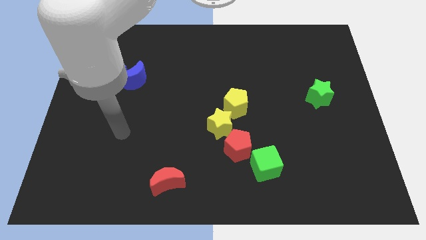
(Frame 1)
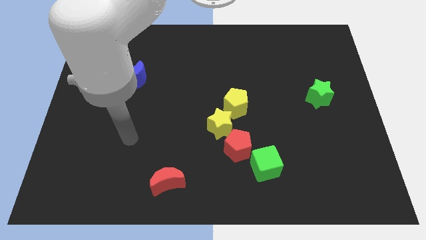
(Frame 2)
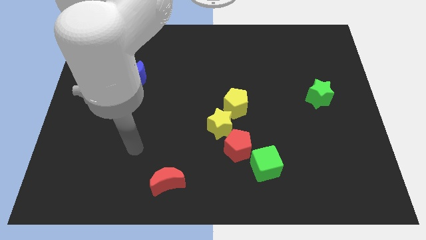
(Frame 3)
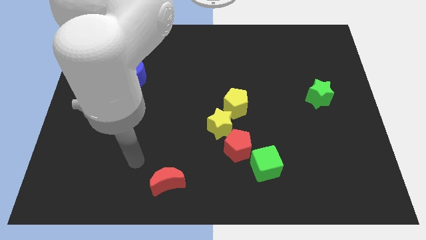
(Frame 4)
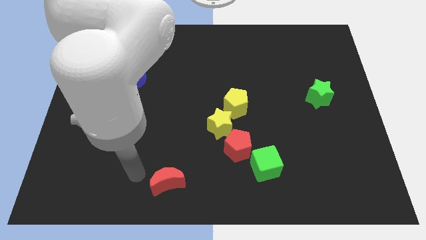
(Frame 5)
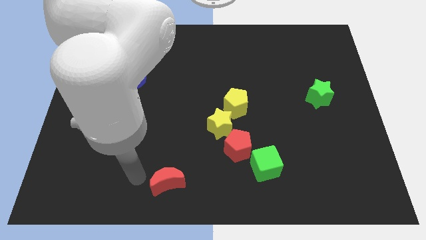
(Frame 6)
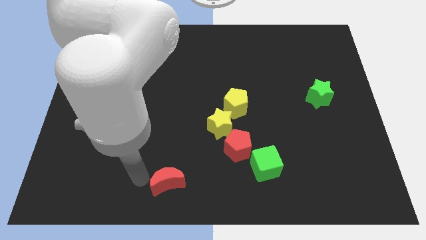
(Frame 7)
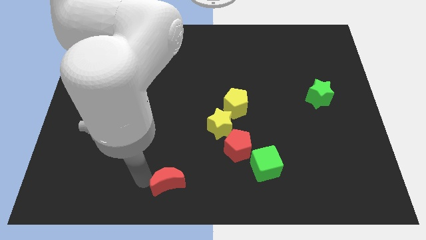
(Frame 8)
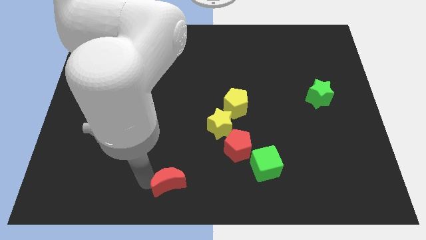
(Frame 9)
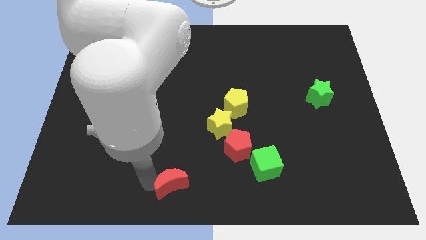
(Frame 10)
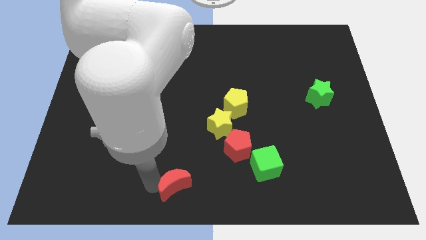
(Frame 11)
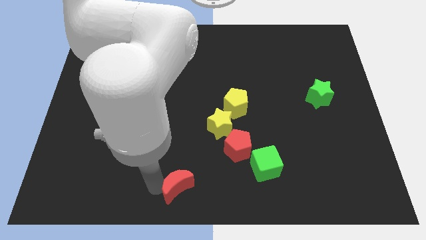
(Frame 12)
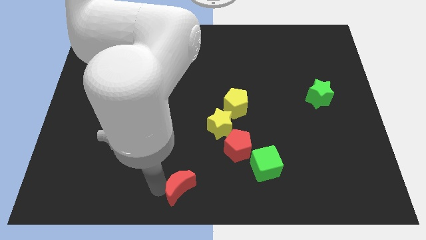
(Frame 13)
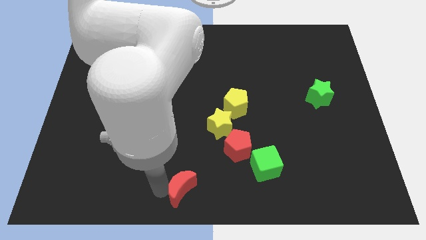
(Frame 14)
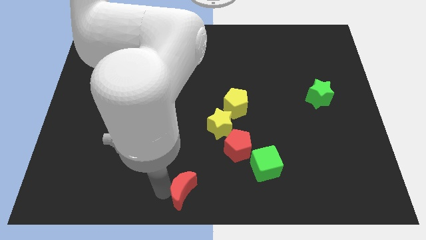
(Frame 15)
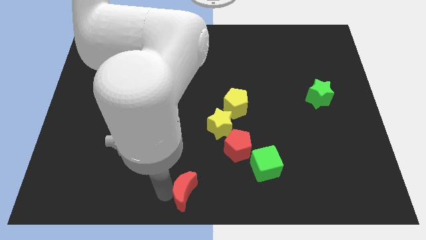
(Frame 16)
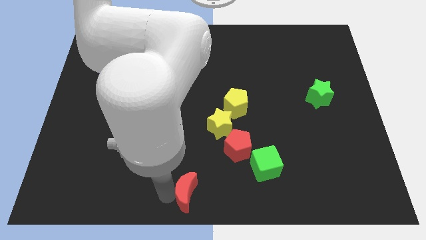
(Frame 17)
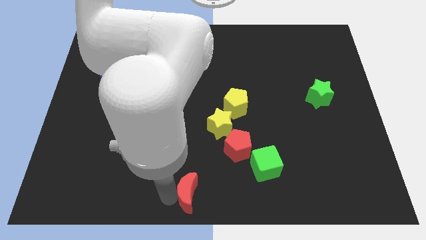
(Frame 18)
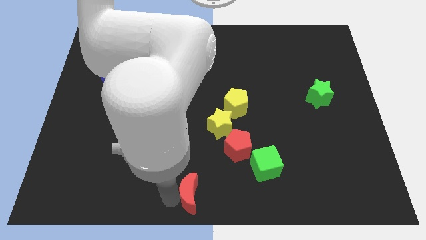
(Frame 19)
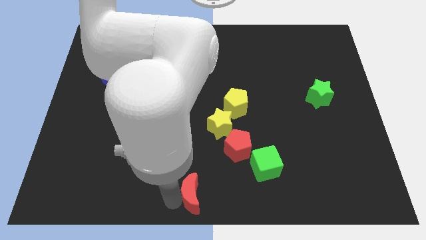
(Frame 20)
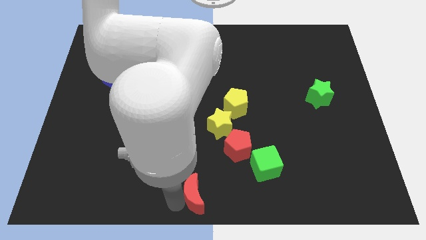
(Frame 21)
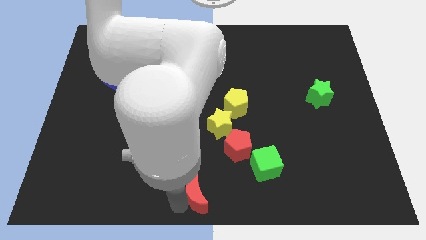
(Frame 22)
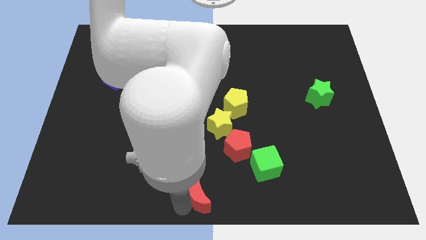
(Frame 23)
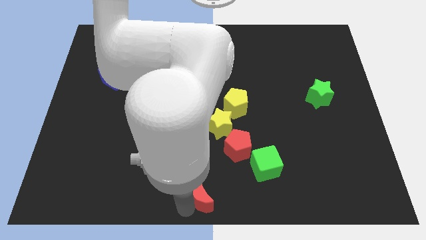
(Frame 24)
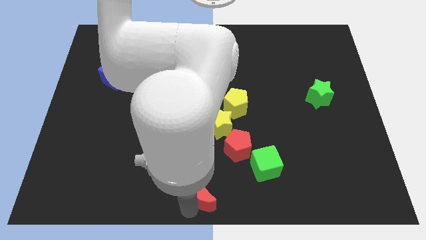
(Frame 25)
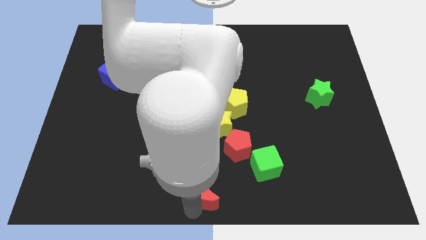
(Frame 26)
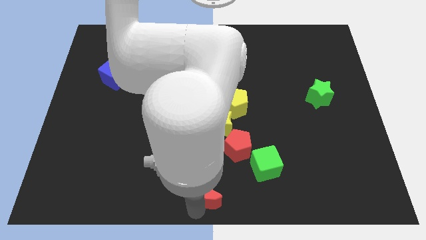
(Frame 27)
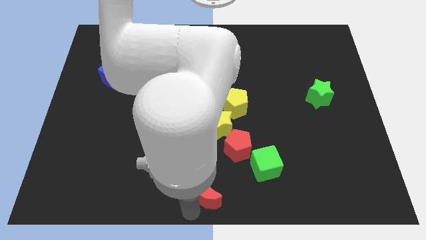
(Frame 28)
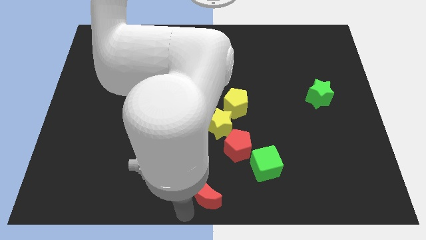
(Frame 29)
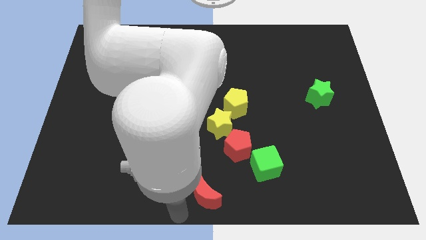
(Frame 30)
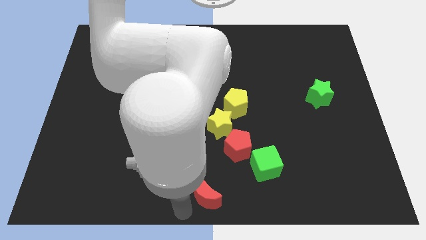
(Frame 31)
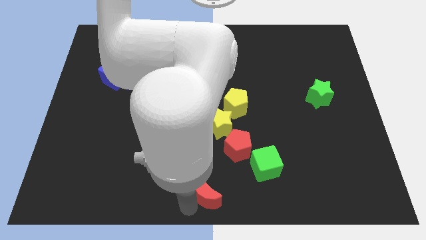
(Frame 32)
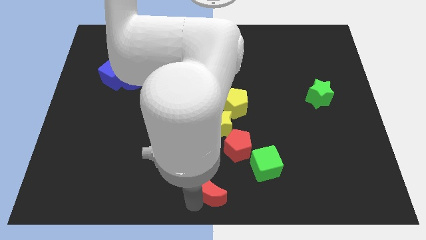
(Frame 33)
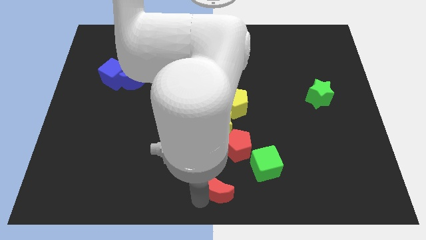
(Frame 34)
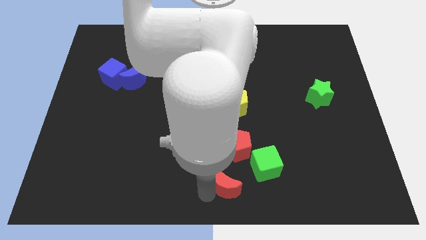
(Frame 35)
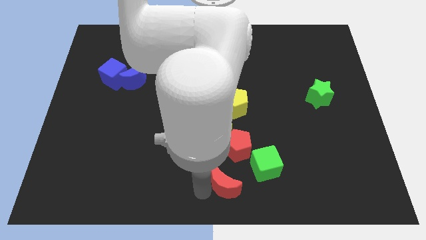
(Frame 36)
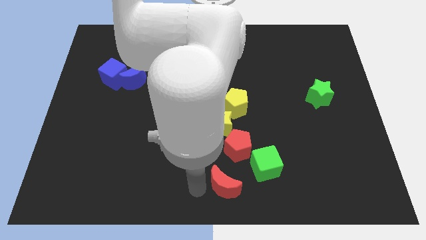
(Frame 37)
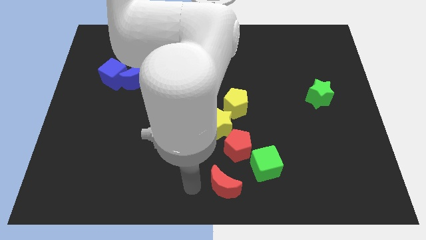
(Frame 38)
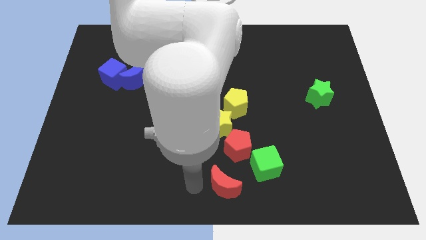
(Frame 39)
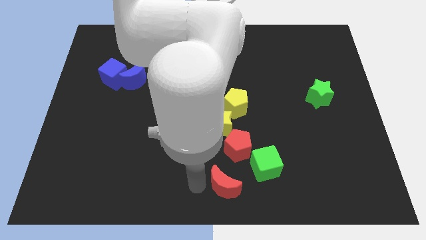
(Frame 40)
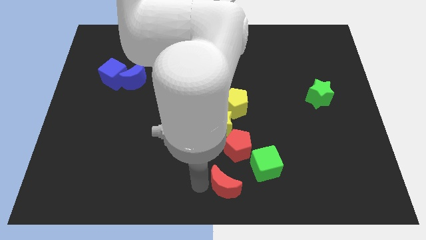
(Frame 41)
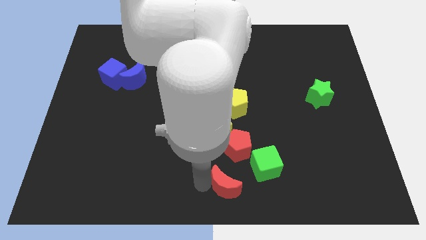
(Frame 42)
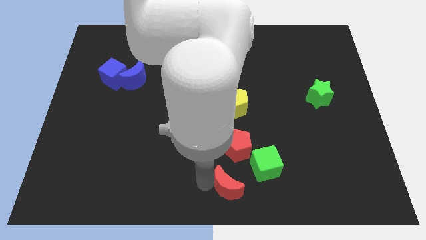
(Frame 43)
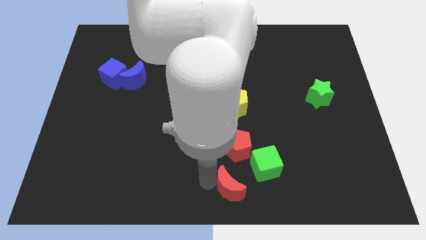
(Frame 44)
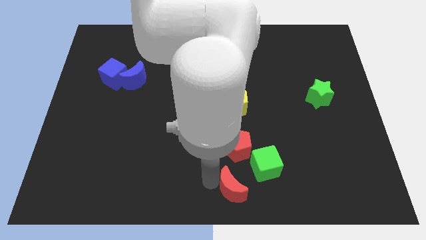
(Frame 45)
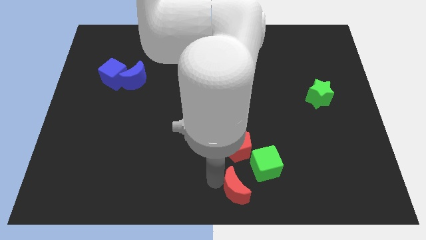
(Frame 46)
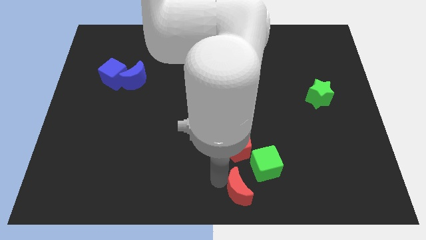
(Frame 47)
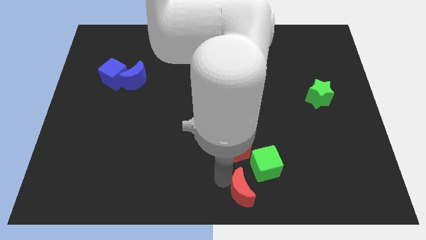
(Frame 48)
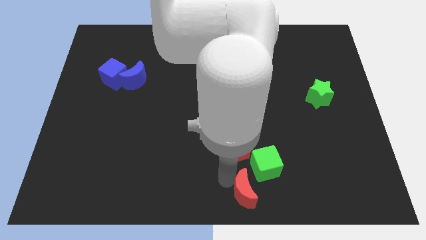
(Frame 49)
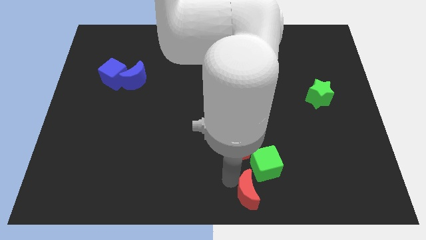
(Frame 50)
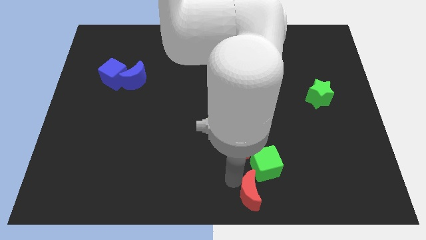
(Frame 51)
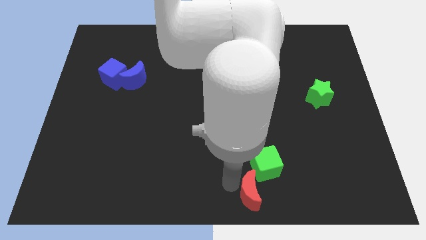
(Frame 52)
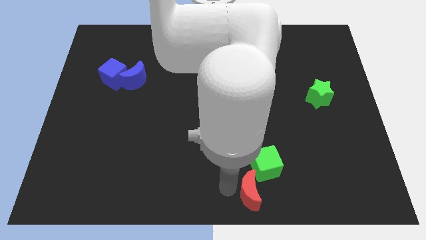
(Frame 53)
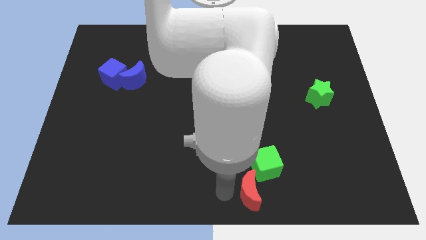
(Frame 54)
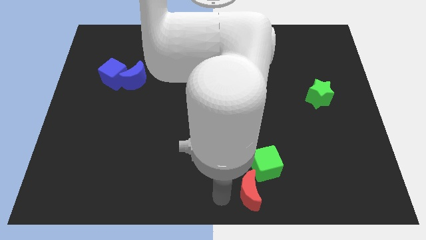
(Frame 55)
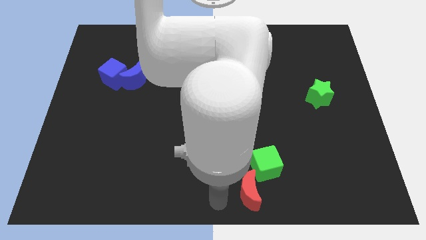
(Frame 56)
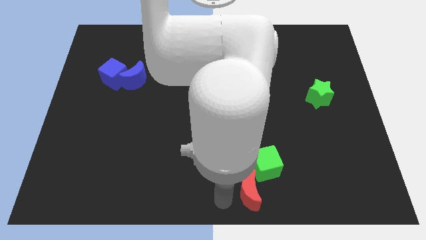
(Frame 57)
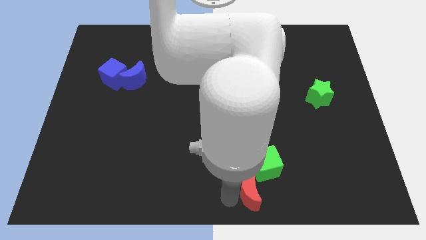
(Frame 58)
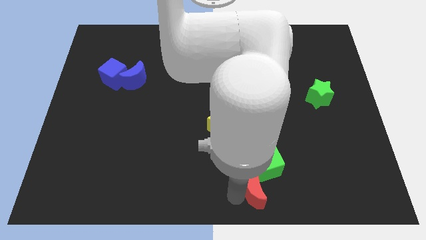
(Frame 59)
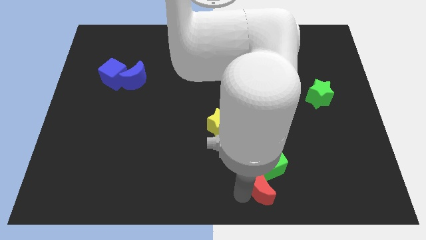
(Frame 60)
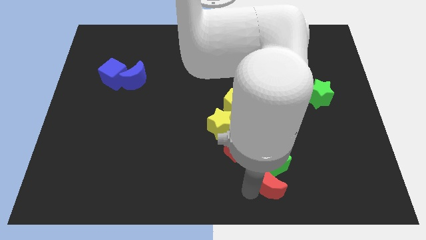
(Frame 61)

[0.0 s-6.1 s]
move the red moon to the right

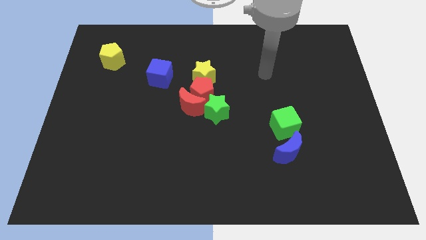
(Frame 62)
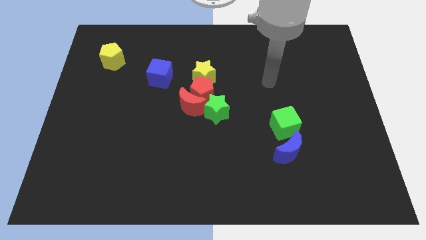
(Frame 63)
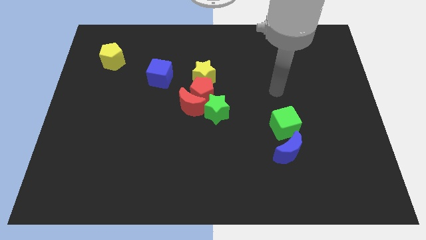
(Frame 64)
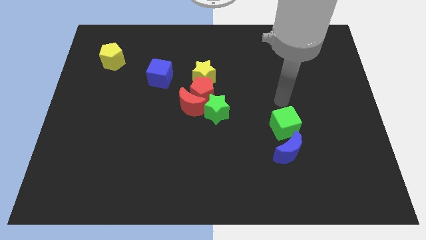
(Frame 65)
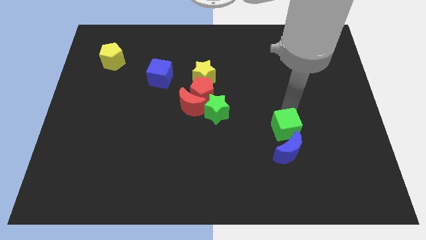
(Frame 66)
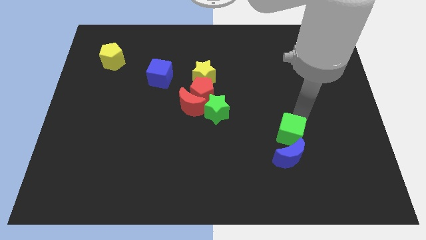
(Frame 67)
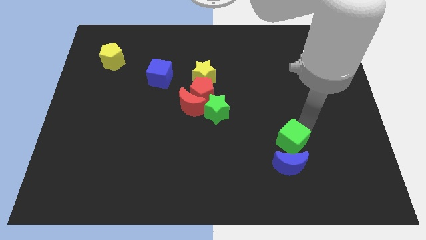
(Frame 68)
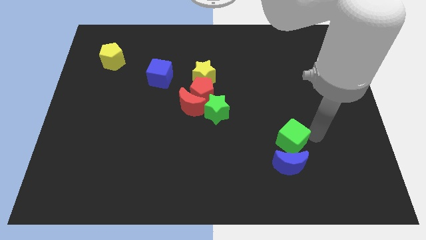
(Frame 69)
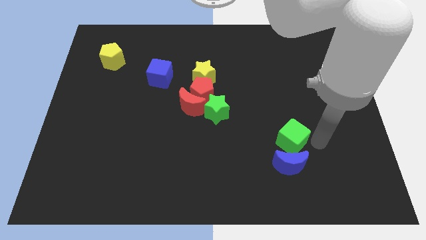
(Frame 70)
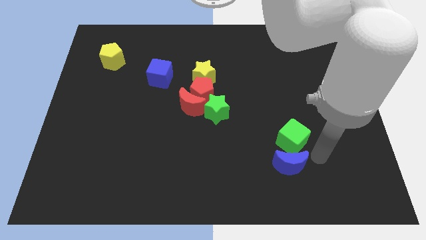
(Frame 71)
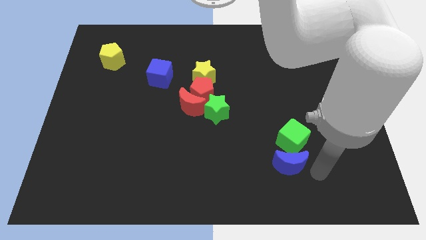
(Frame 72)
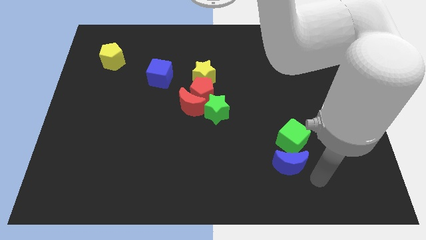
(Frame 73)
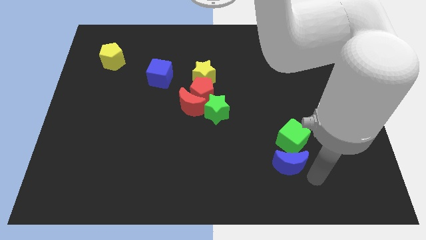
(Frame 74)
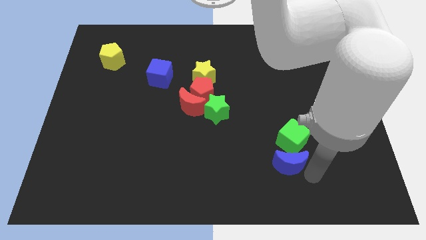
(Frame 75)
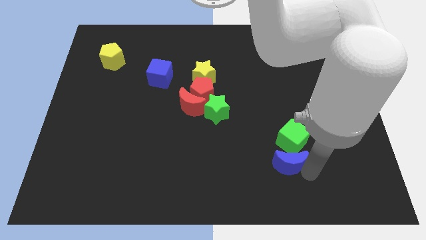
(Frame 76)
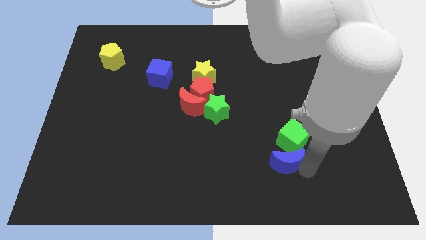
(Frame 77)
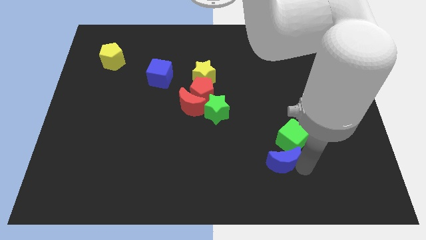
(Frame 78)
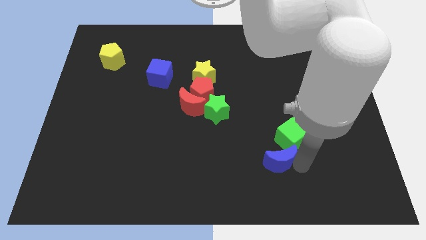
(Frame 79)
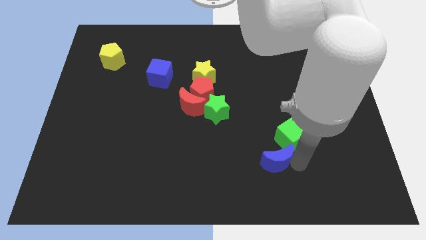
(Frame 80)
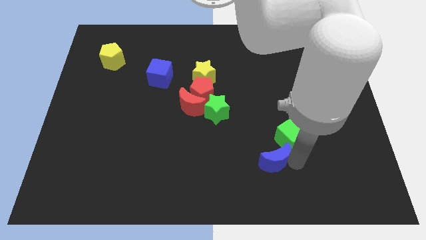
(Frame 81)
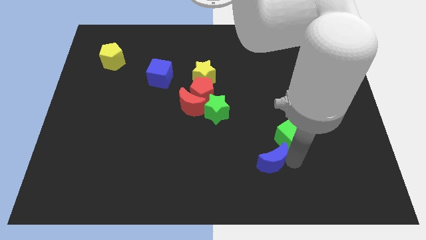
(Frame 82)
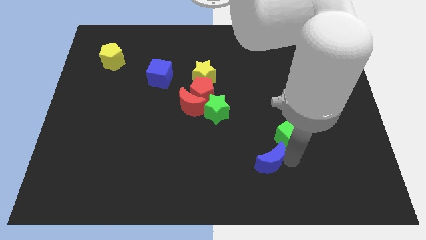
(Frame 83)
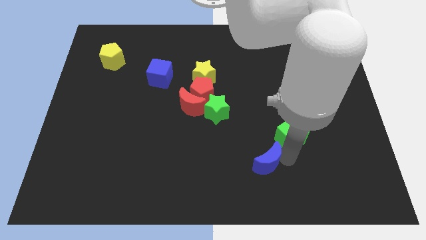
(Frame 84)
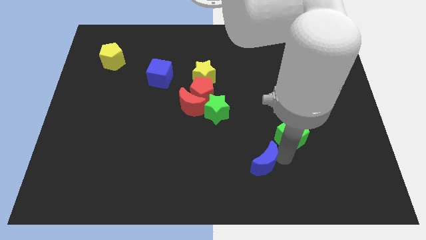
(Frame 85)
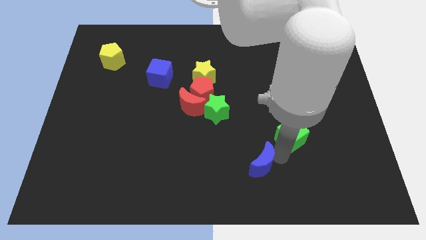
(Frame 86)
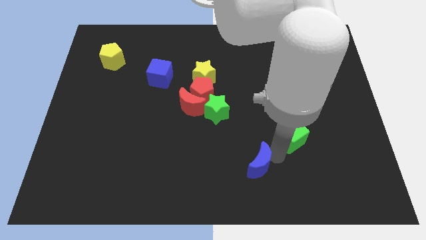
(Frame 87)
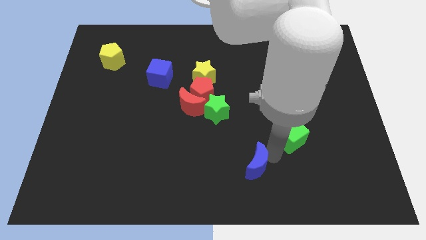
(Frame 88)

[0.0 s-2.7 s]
slightly push the blue moon left
